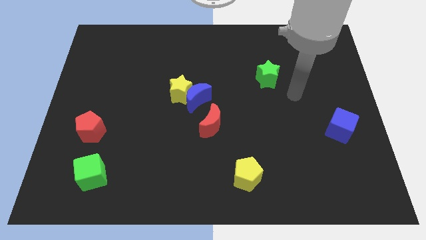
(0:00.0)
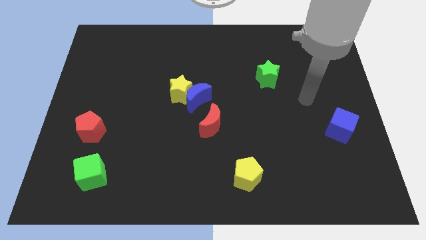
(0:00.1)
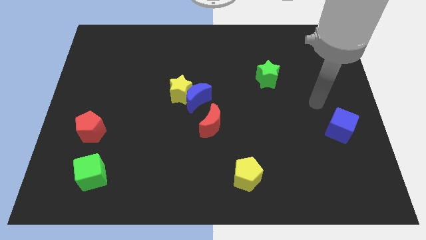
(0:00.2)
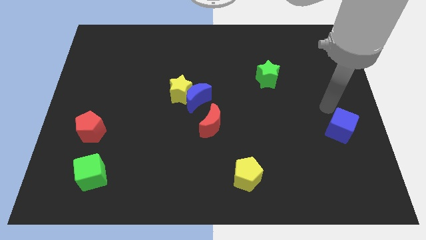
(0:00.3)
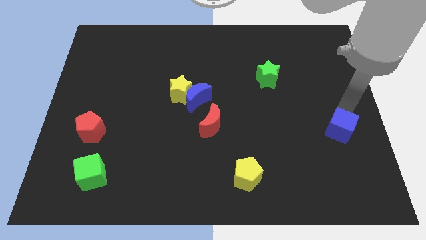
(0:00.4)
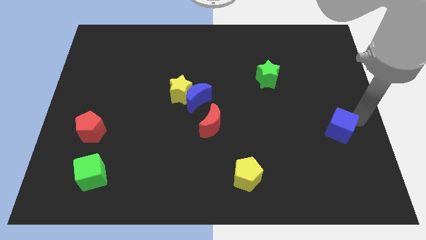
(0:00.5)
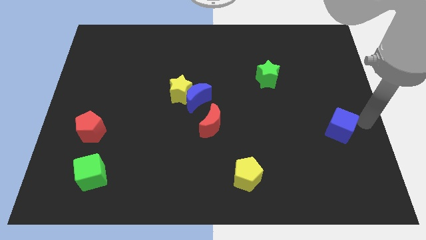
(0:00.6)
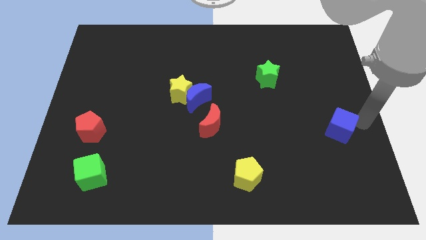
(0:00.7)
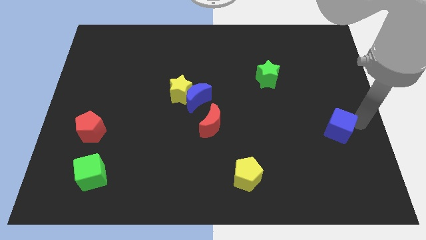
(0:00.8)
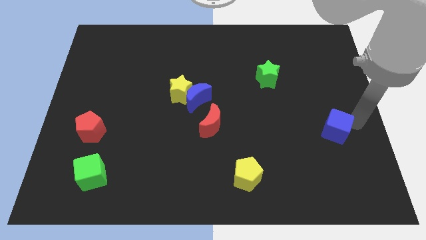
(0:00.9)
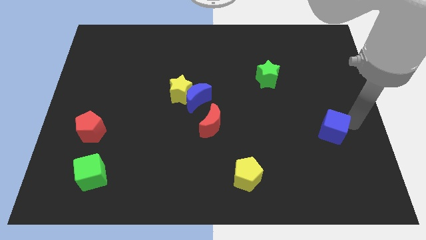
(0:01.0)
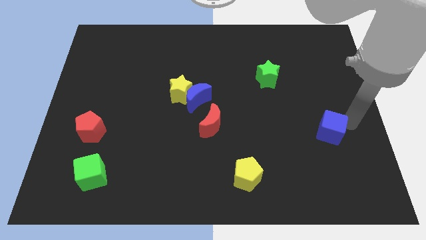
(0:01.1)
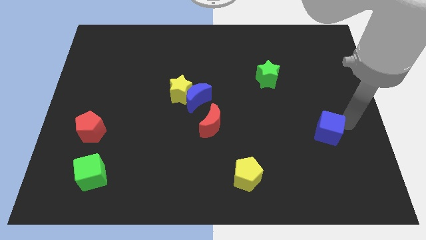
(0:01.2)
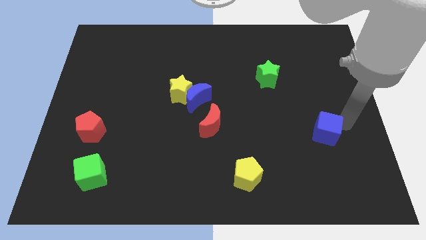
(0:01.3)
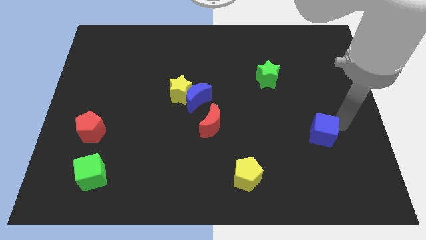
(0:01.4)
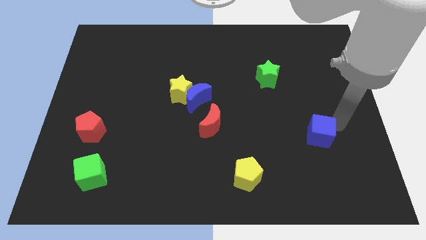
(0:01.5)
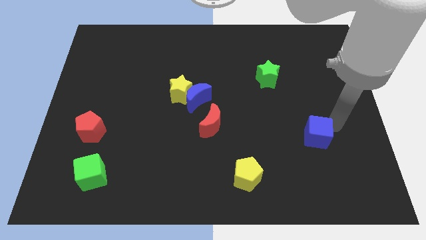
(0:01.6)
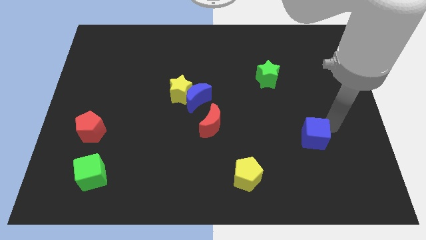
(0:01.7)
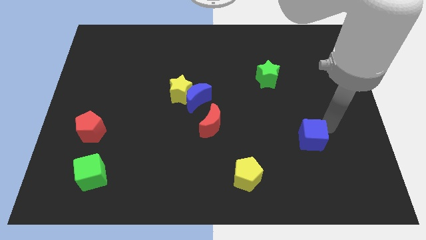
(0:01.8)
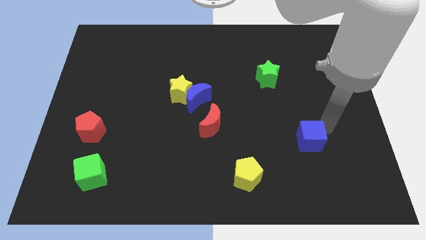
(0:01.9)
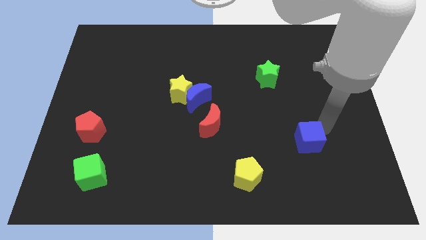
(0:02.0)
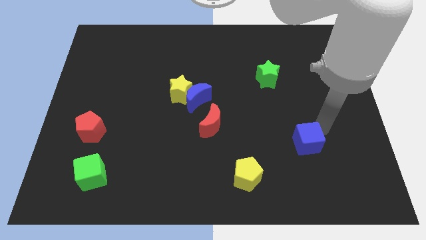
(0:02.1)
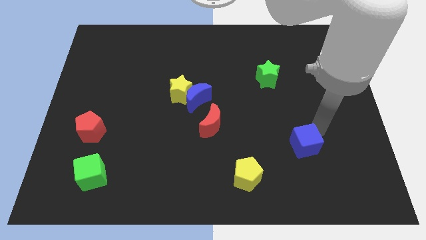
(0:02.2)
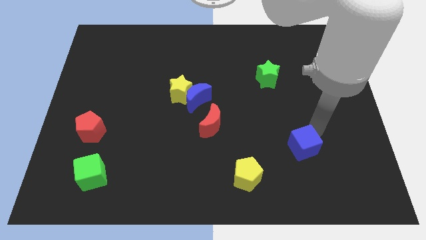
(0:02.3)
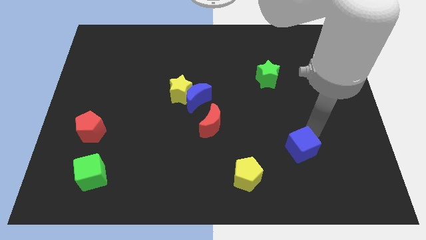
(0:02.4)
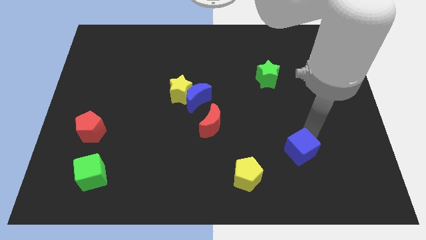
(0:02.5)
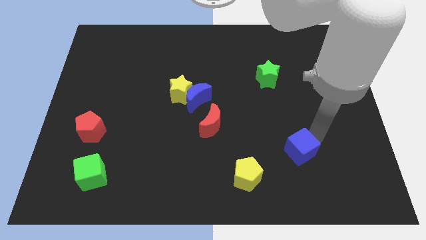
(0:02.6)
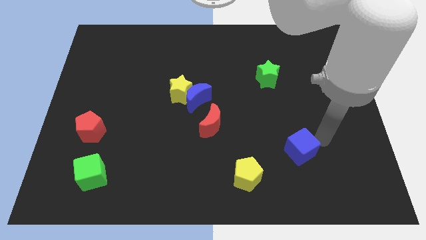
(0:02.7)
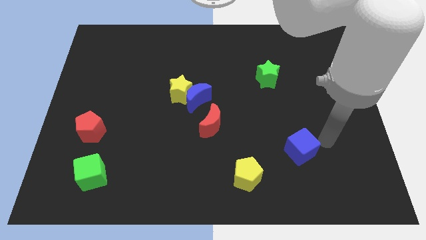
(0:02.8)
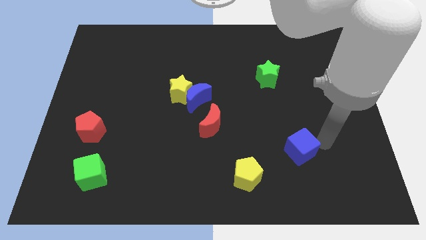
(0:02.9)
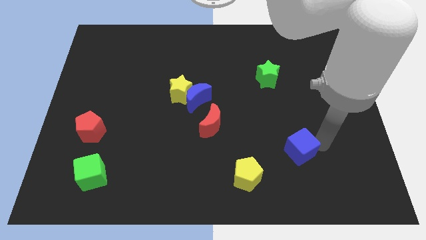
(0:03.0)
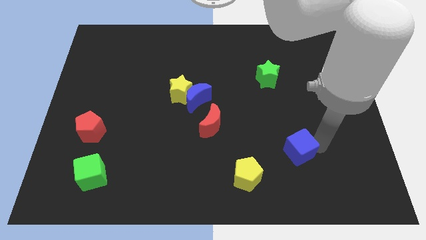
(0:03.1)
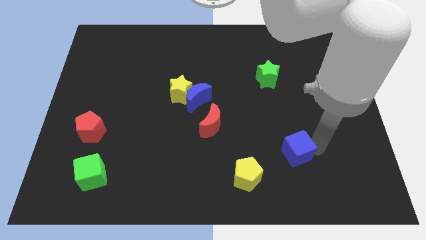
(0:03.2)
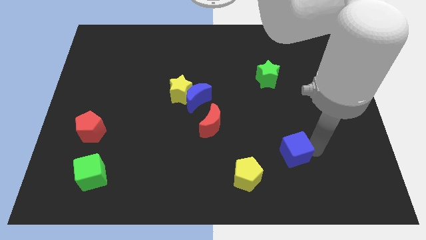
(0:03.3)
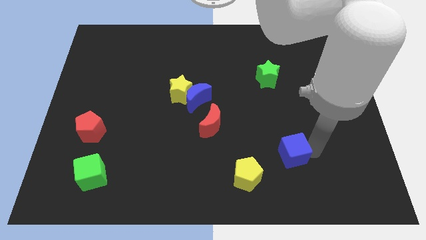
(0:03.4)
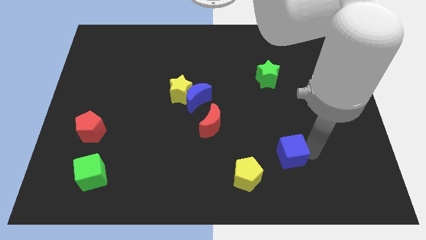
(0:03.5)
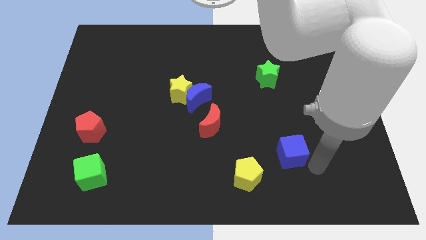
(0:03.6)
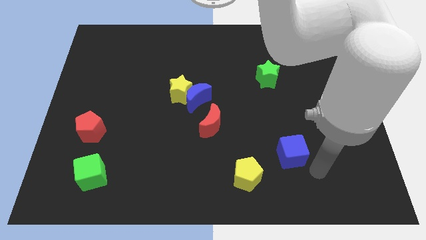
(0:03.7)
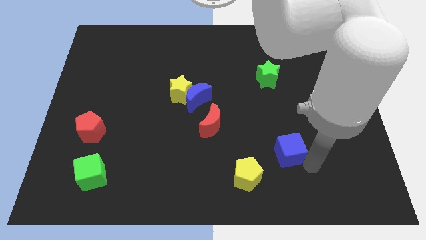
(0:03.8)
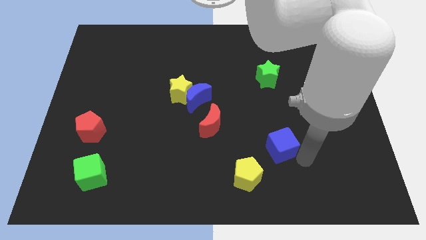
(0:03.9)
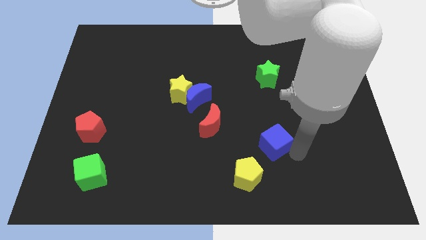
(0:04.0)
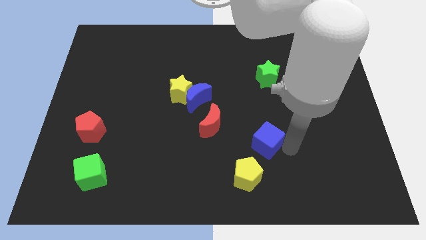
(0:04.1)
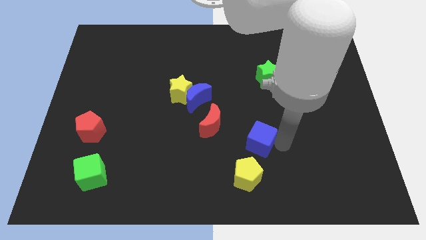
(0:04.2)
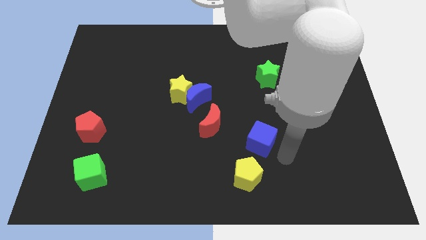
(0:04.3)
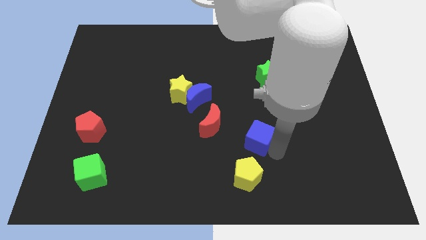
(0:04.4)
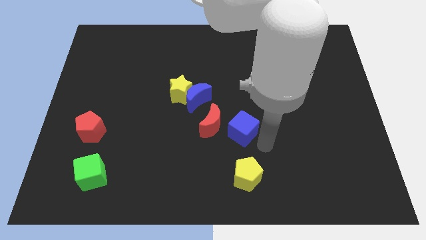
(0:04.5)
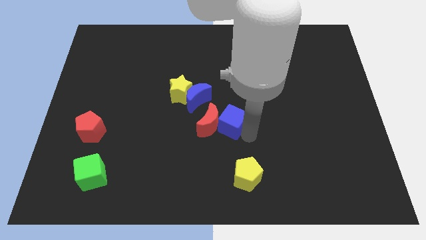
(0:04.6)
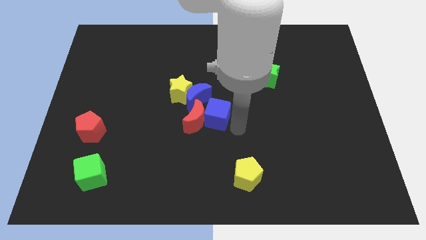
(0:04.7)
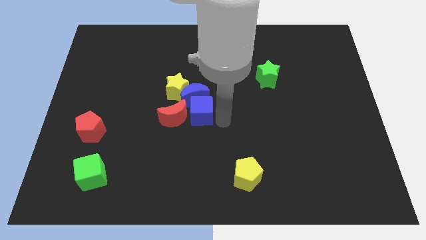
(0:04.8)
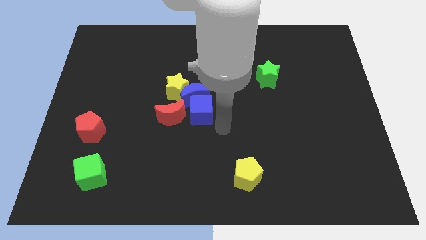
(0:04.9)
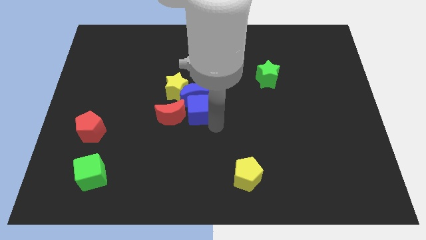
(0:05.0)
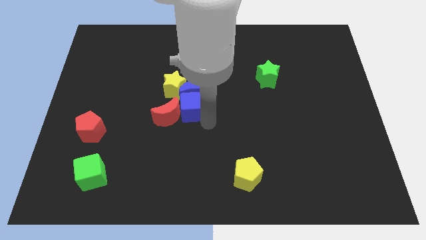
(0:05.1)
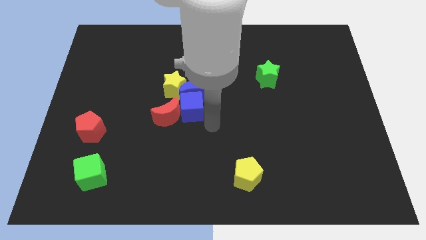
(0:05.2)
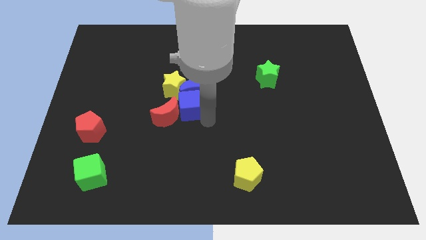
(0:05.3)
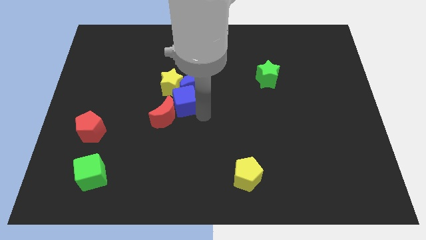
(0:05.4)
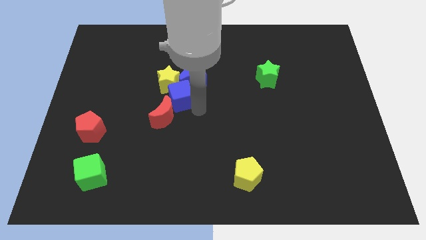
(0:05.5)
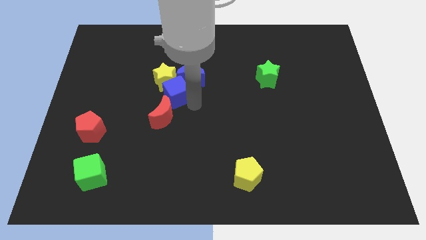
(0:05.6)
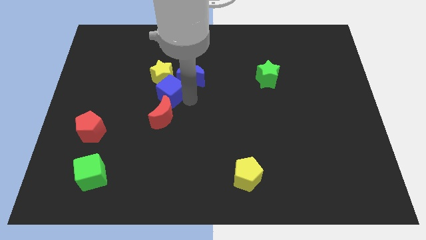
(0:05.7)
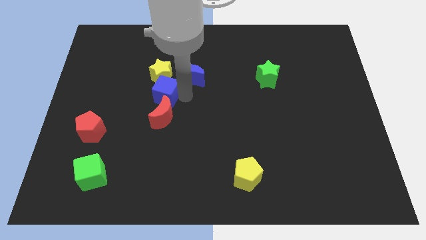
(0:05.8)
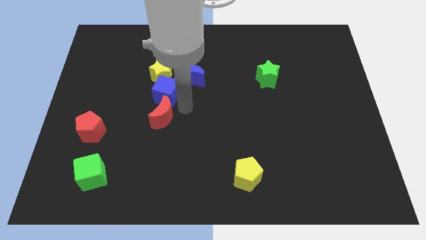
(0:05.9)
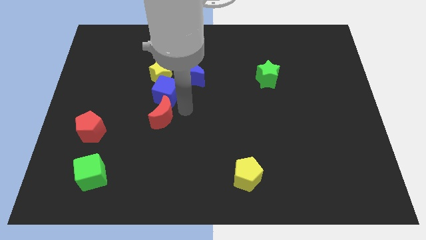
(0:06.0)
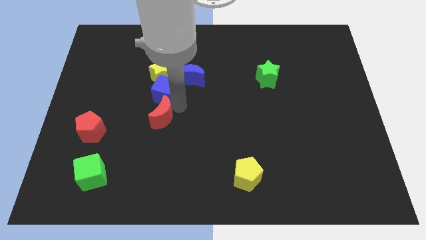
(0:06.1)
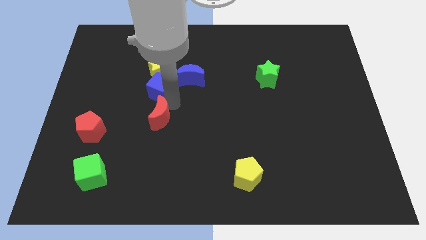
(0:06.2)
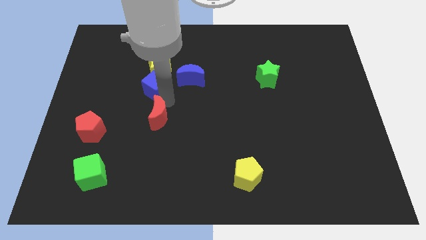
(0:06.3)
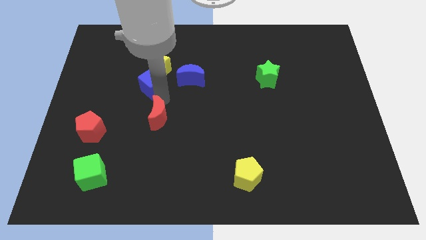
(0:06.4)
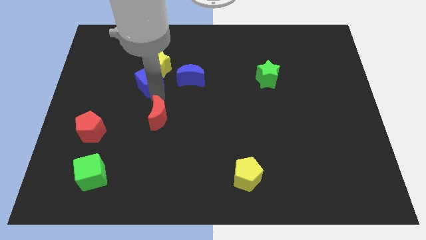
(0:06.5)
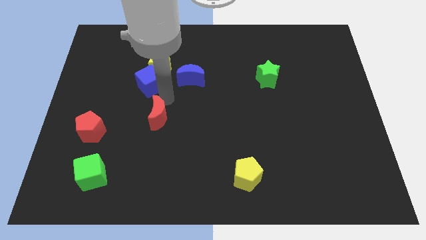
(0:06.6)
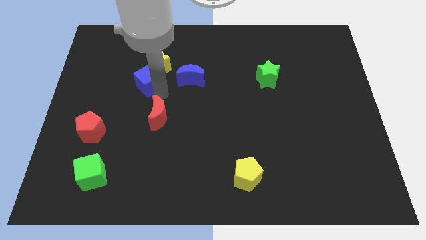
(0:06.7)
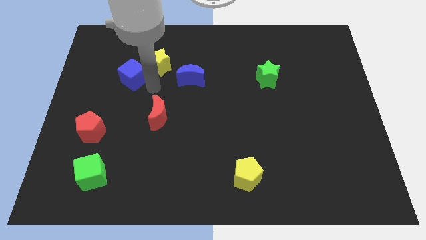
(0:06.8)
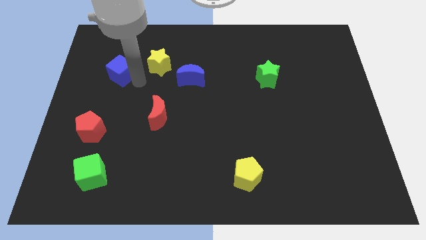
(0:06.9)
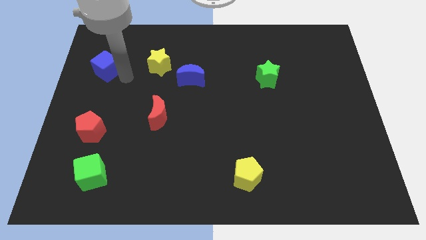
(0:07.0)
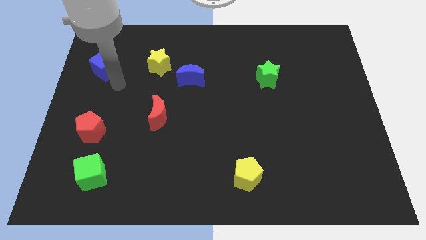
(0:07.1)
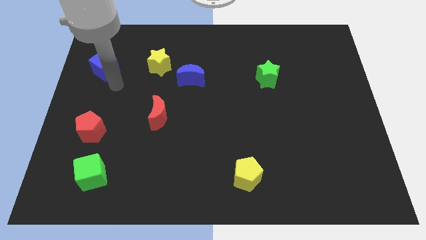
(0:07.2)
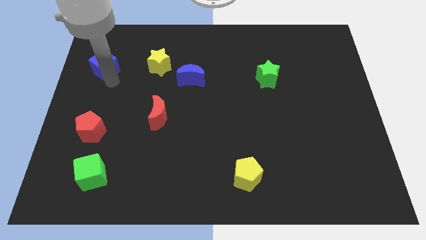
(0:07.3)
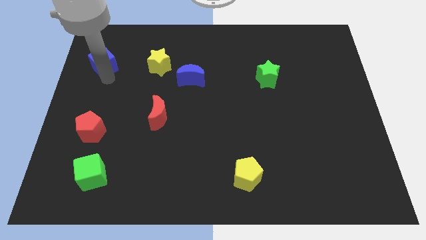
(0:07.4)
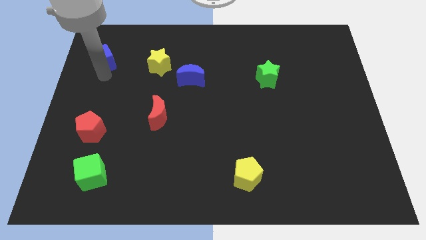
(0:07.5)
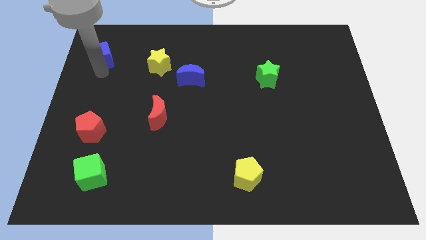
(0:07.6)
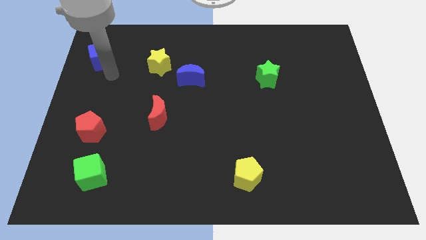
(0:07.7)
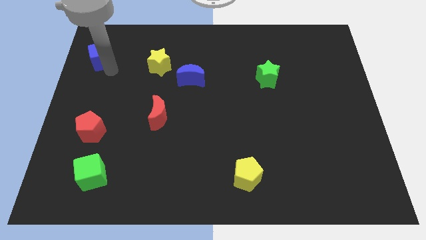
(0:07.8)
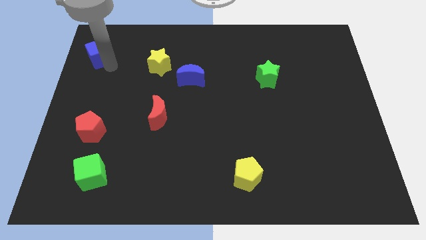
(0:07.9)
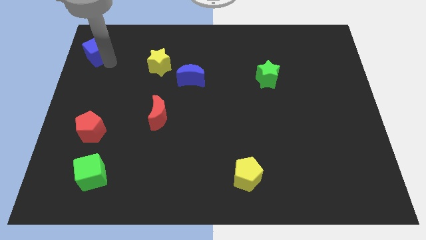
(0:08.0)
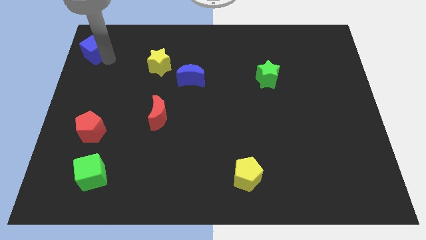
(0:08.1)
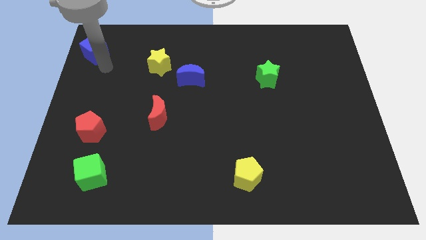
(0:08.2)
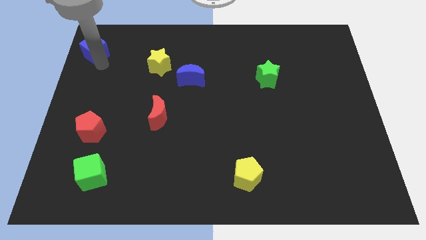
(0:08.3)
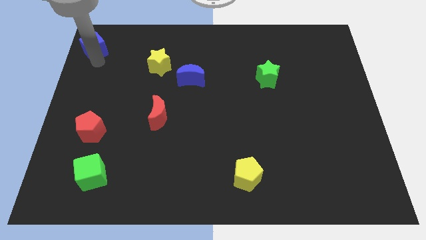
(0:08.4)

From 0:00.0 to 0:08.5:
slide the blue cube to the top left of the board
